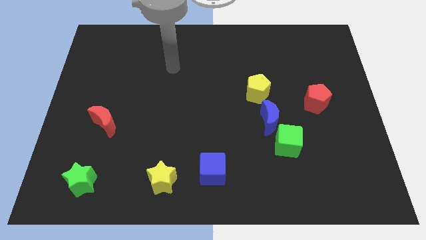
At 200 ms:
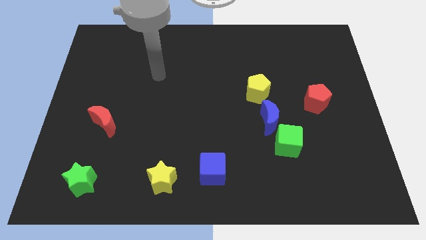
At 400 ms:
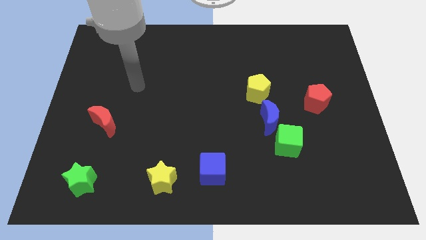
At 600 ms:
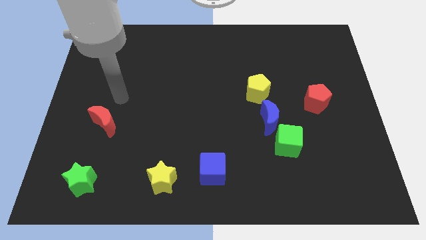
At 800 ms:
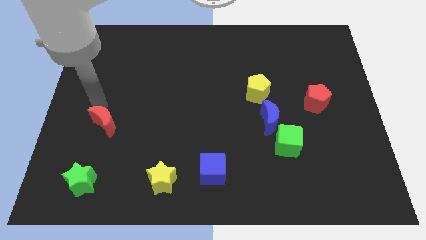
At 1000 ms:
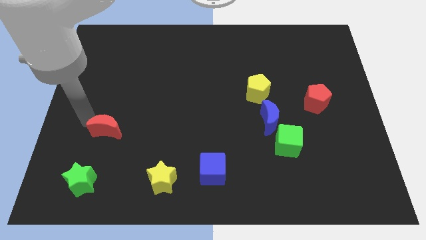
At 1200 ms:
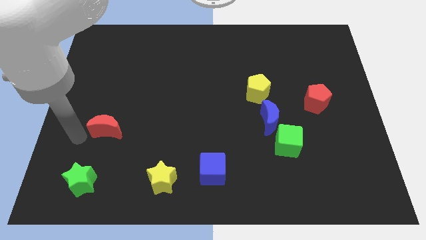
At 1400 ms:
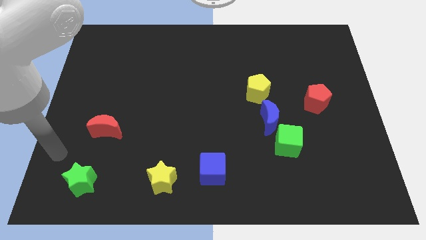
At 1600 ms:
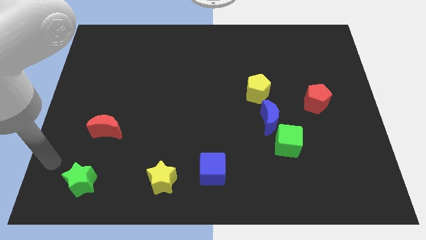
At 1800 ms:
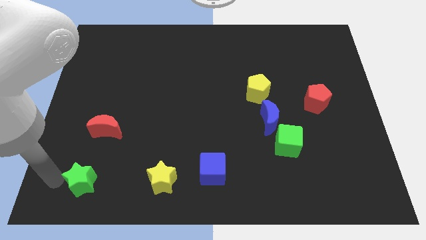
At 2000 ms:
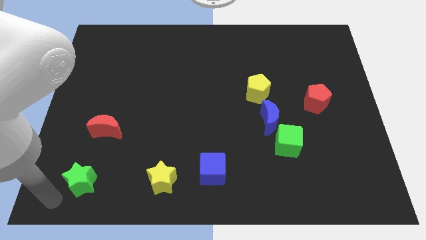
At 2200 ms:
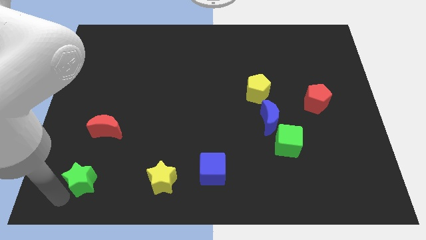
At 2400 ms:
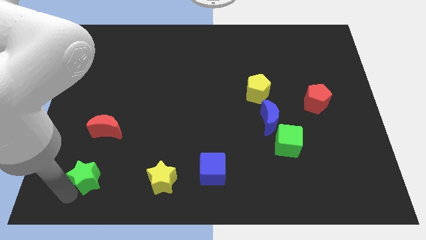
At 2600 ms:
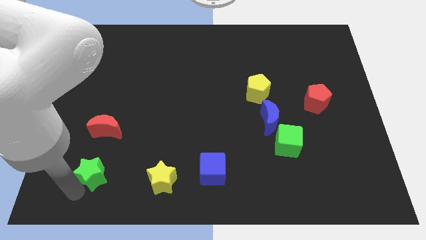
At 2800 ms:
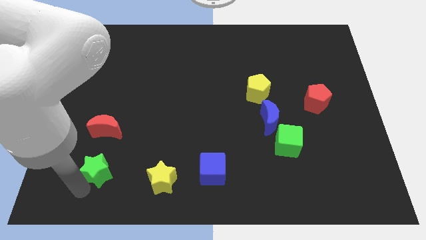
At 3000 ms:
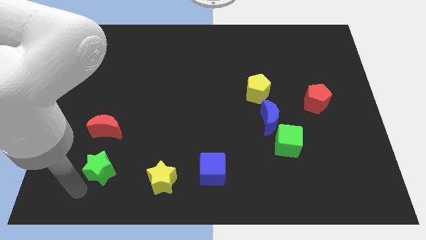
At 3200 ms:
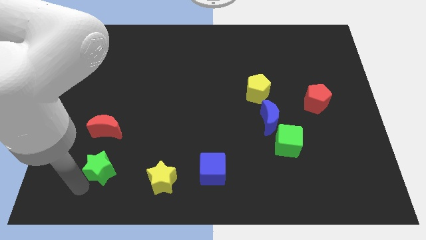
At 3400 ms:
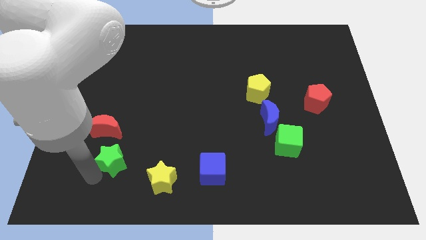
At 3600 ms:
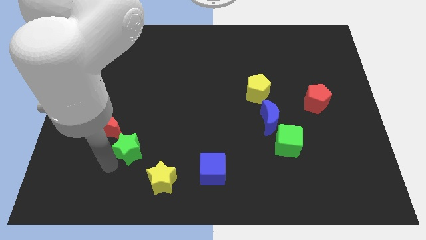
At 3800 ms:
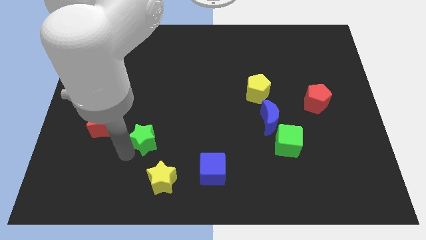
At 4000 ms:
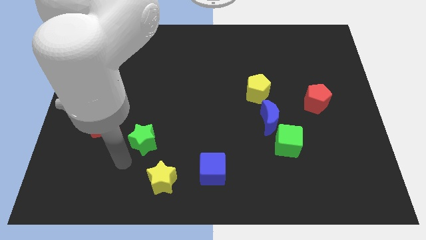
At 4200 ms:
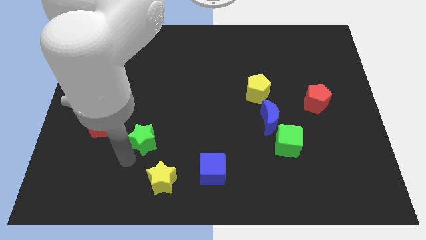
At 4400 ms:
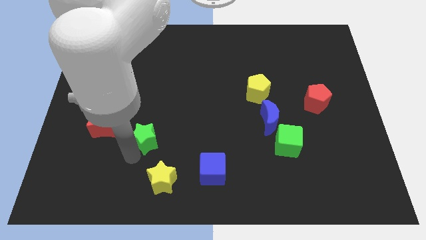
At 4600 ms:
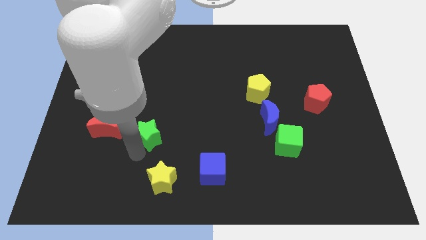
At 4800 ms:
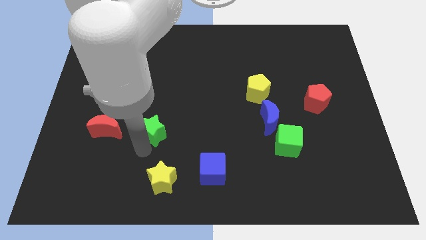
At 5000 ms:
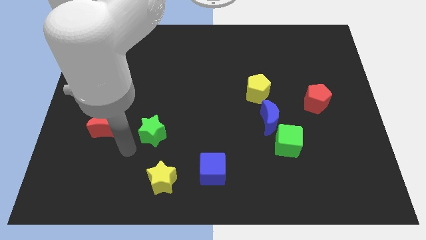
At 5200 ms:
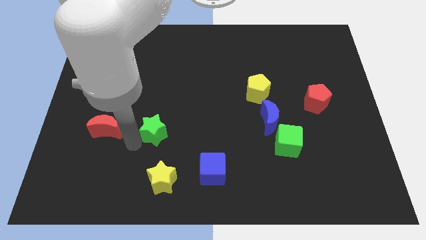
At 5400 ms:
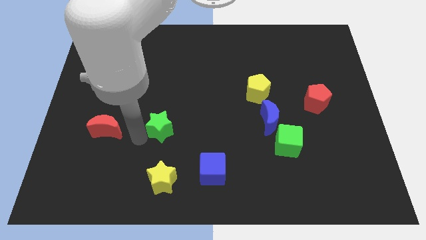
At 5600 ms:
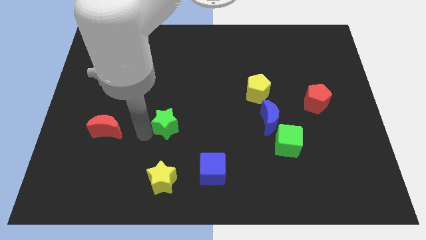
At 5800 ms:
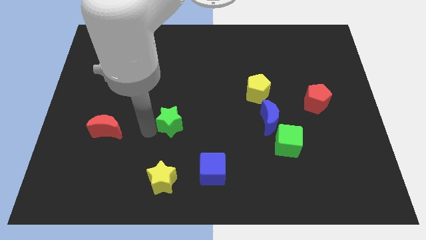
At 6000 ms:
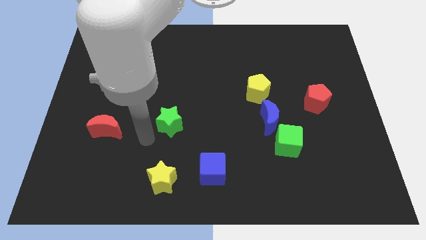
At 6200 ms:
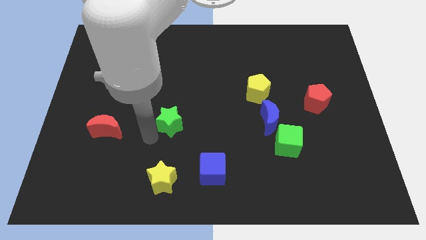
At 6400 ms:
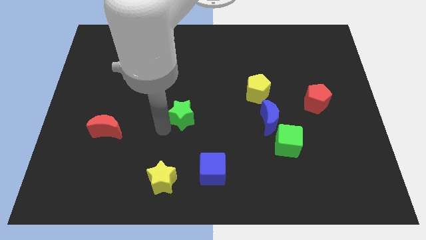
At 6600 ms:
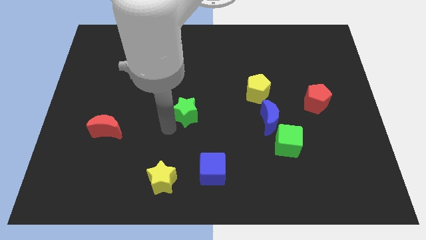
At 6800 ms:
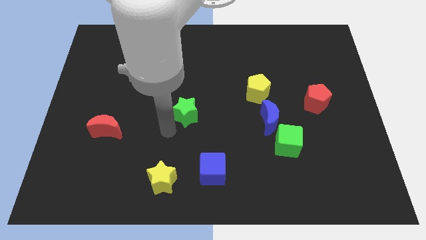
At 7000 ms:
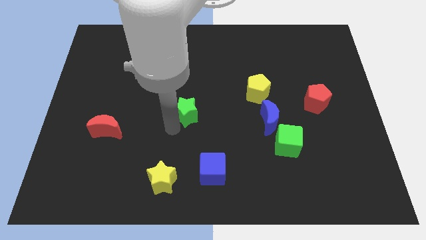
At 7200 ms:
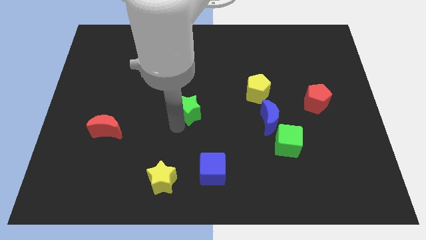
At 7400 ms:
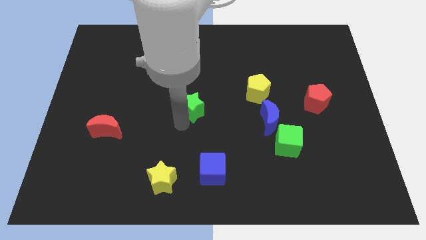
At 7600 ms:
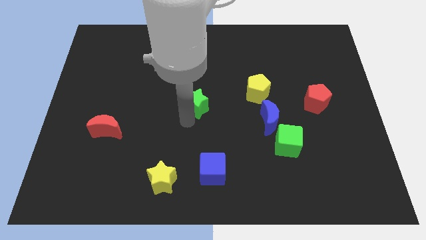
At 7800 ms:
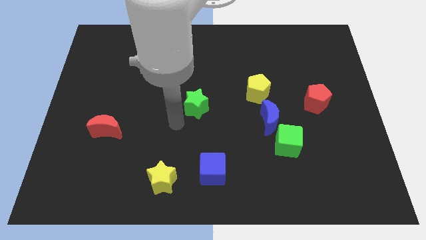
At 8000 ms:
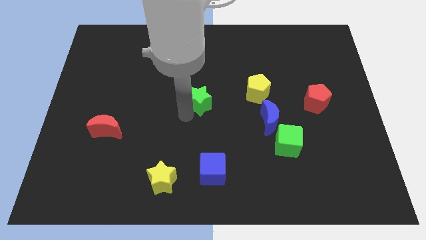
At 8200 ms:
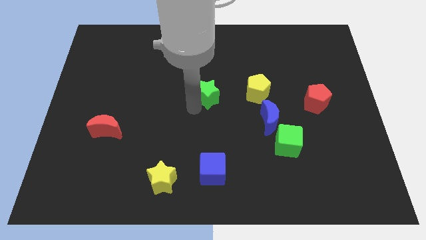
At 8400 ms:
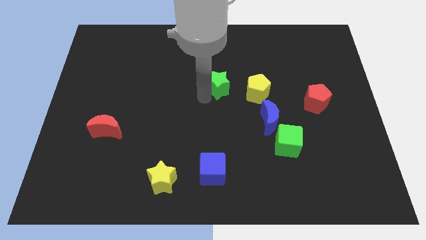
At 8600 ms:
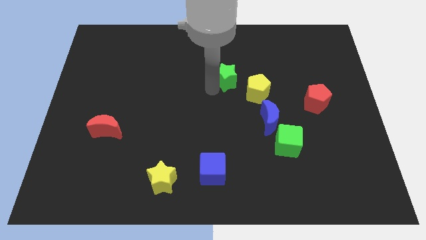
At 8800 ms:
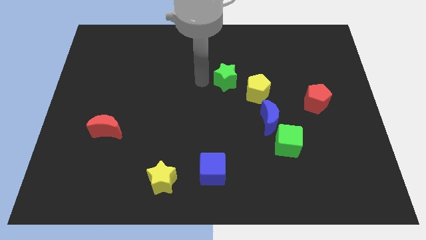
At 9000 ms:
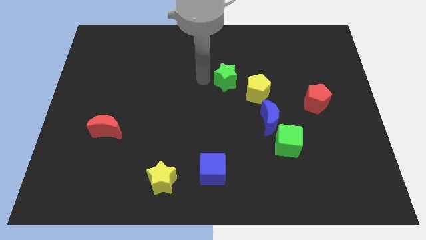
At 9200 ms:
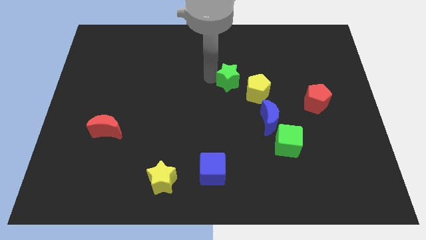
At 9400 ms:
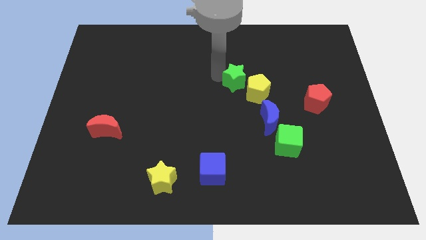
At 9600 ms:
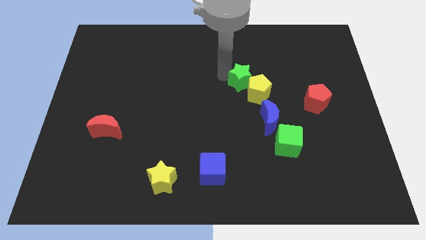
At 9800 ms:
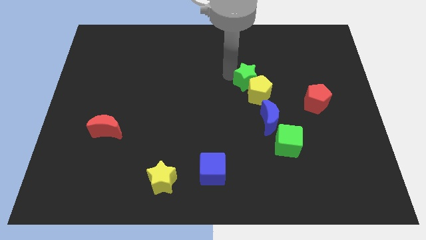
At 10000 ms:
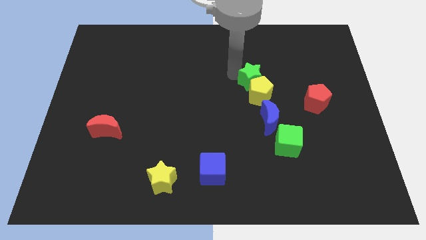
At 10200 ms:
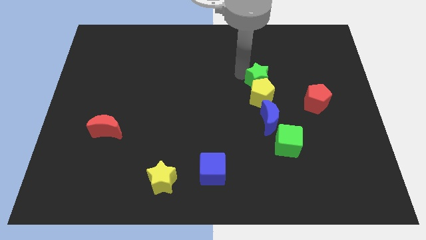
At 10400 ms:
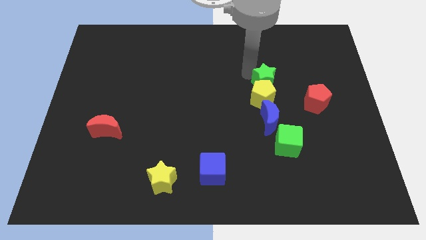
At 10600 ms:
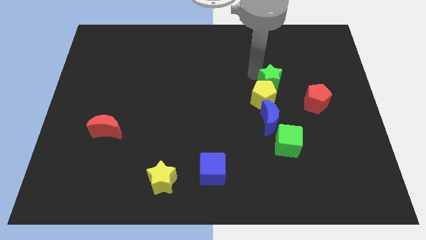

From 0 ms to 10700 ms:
move the green star to the top left side of the red pentagon

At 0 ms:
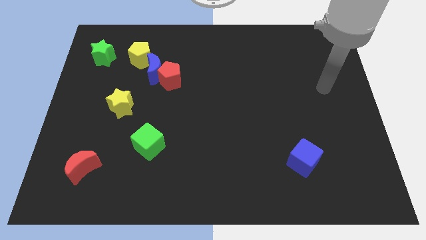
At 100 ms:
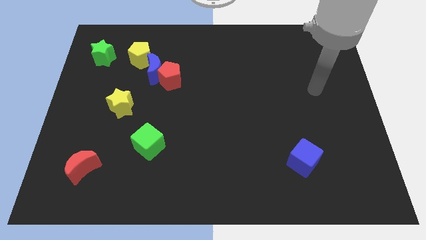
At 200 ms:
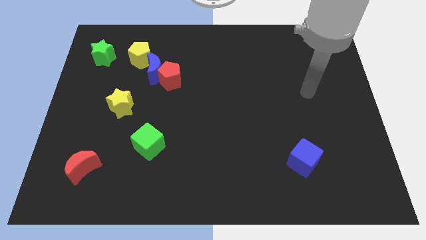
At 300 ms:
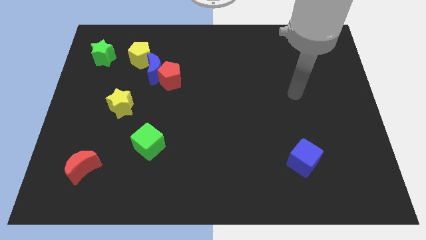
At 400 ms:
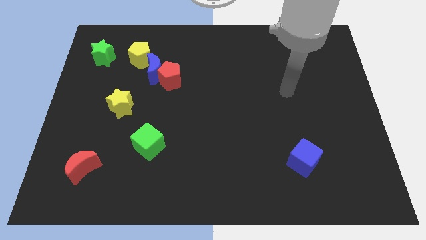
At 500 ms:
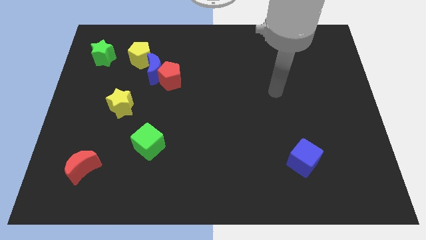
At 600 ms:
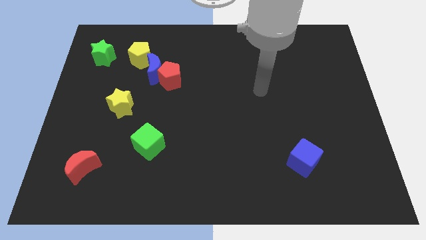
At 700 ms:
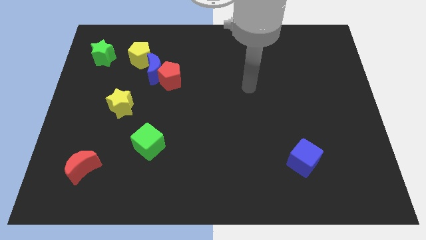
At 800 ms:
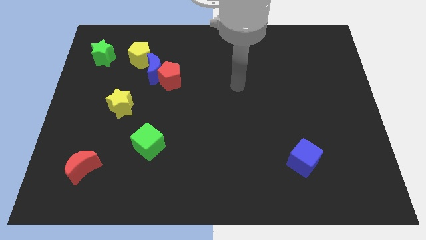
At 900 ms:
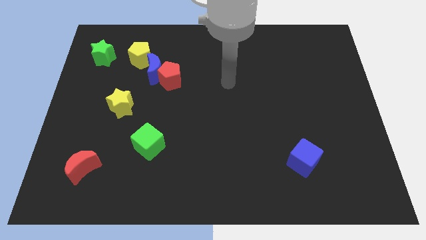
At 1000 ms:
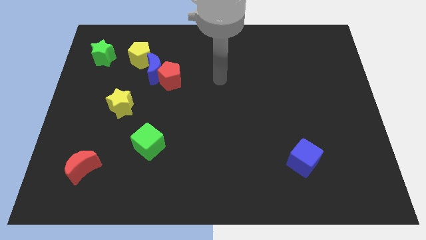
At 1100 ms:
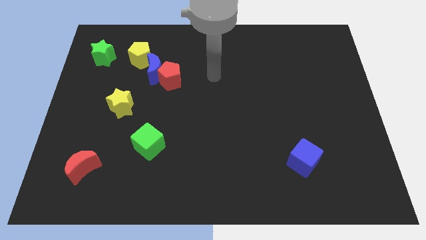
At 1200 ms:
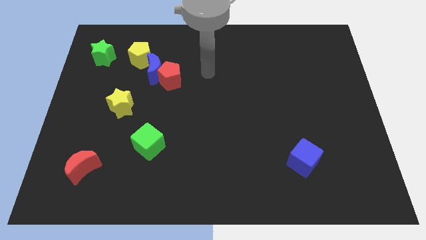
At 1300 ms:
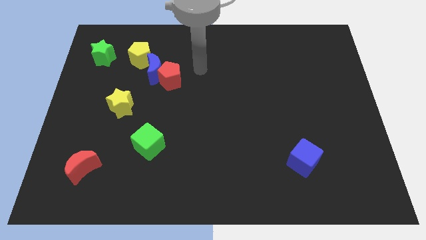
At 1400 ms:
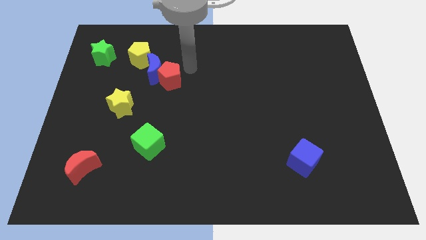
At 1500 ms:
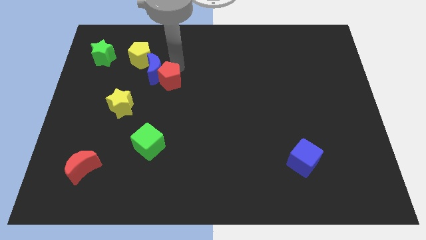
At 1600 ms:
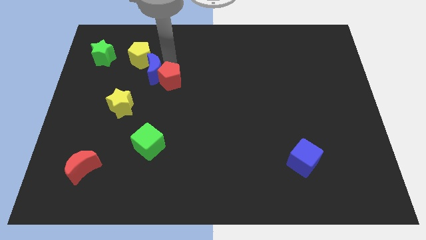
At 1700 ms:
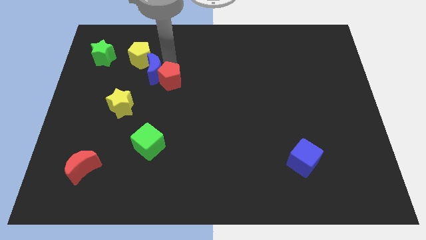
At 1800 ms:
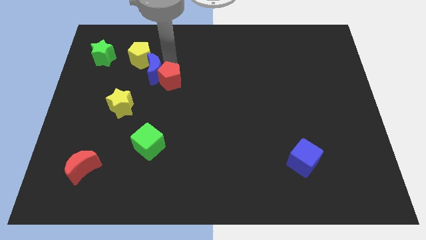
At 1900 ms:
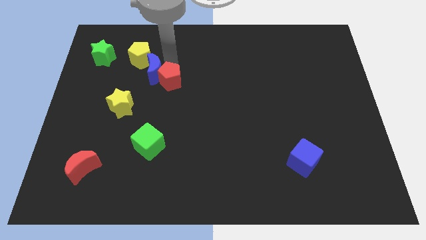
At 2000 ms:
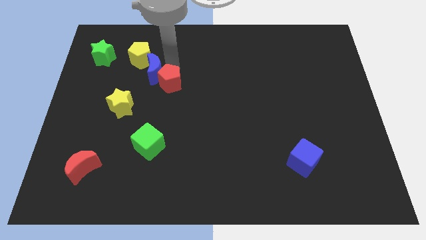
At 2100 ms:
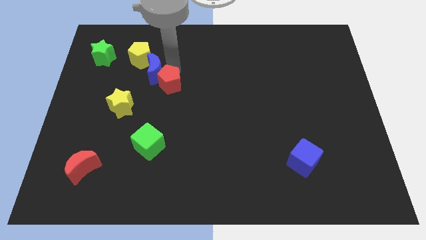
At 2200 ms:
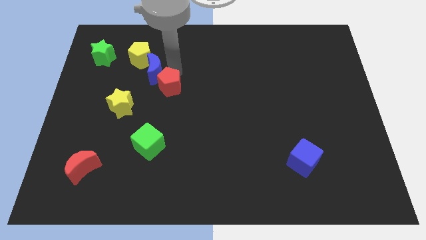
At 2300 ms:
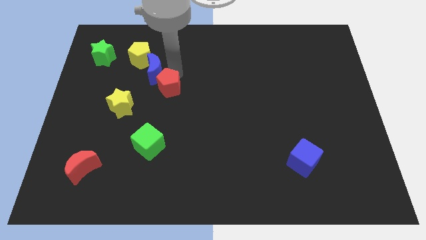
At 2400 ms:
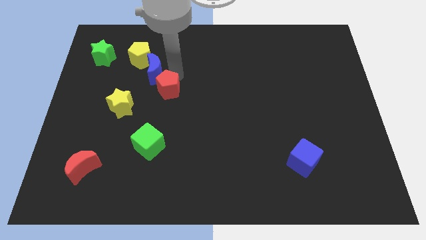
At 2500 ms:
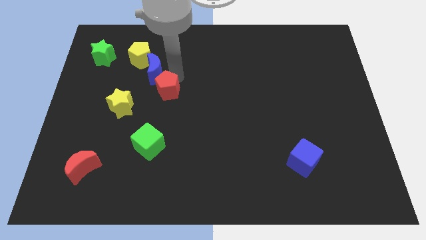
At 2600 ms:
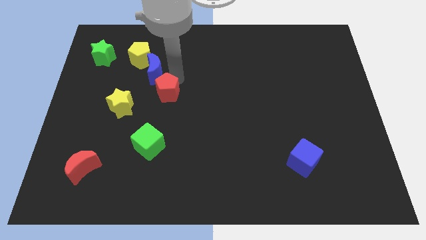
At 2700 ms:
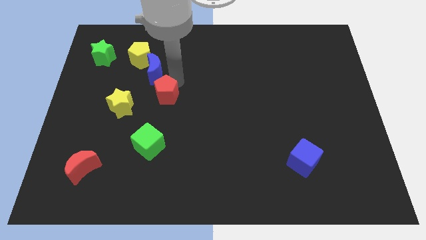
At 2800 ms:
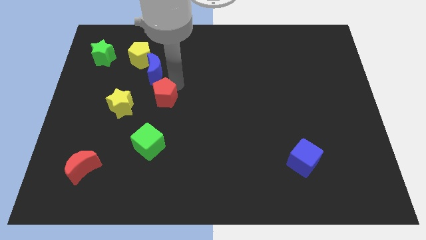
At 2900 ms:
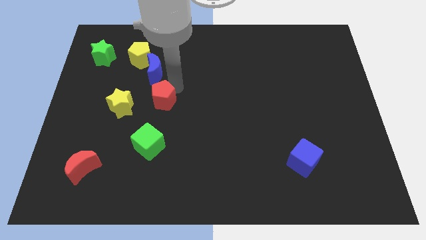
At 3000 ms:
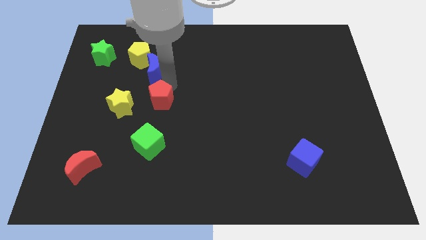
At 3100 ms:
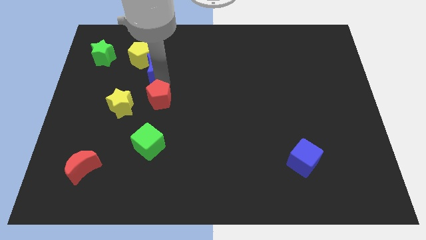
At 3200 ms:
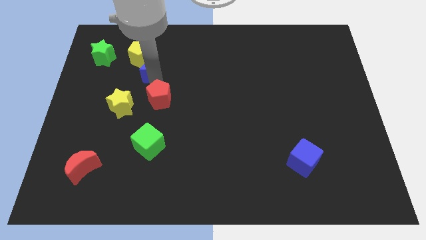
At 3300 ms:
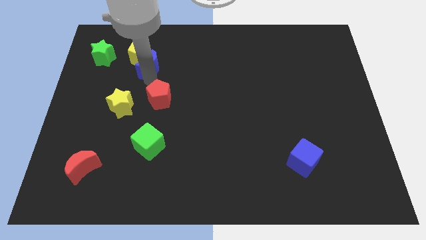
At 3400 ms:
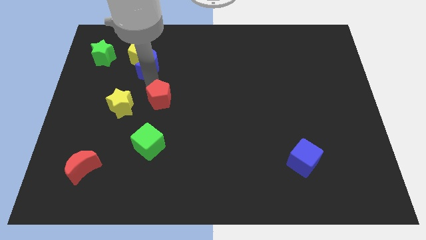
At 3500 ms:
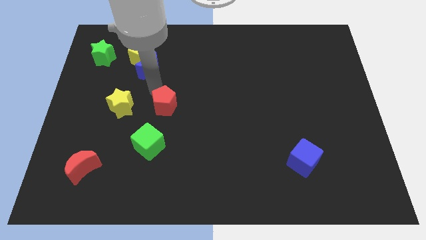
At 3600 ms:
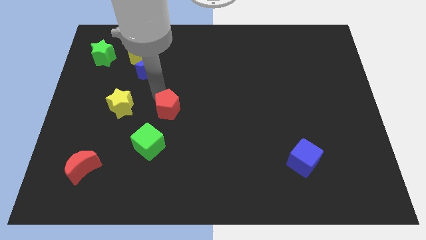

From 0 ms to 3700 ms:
slide the red pentagon to the top right of the green cube
